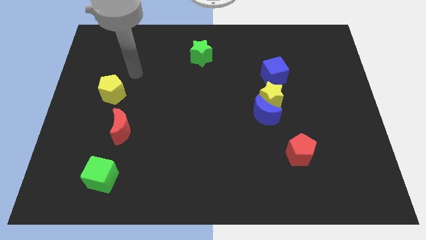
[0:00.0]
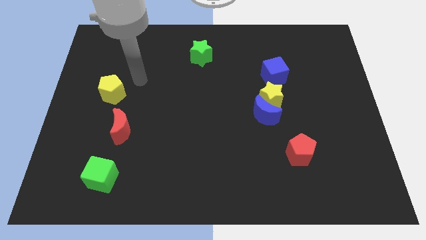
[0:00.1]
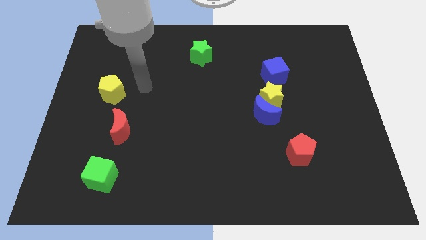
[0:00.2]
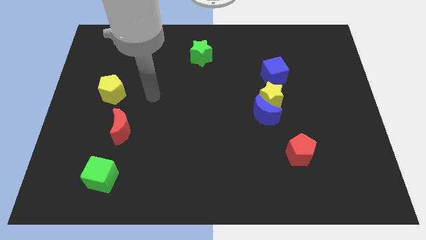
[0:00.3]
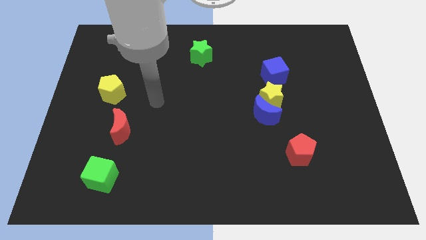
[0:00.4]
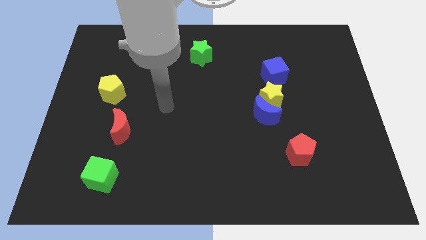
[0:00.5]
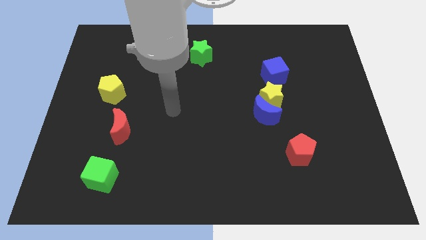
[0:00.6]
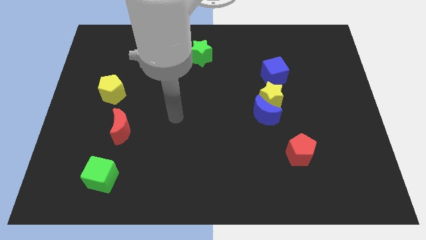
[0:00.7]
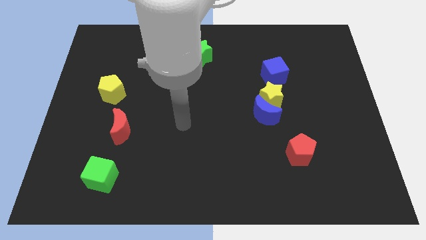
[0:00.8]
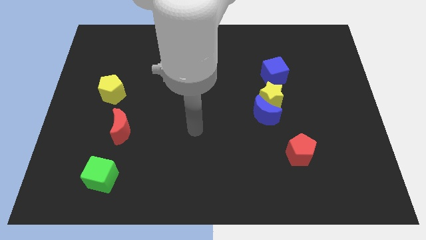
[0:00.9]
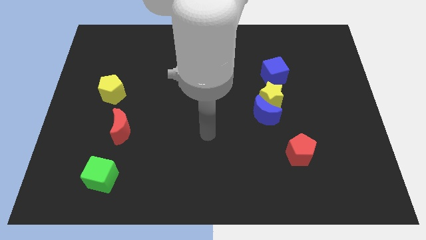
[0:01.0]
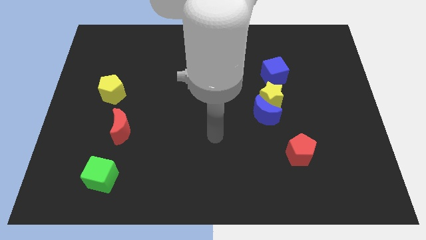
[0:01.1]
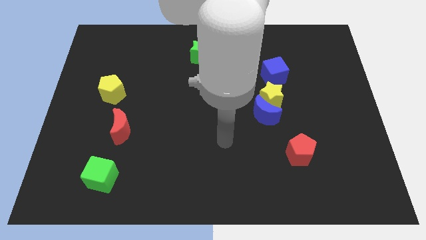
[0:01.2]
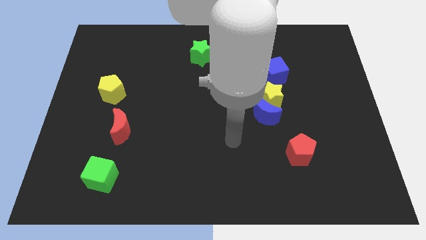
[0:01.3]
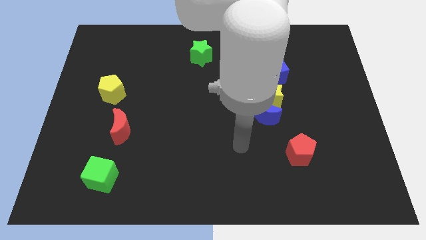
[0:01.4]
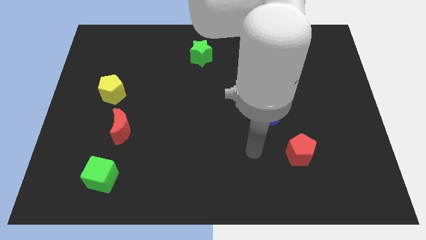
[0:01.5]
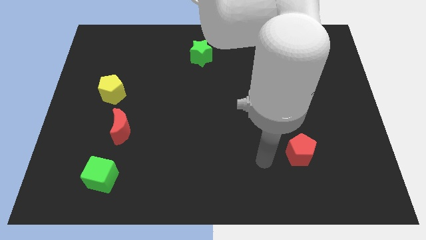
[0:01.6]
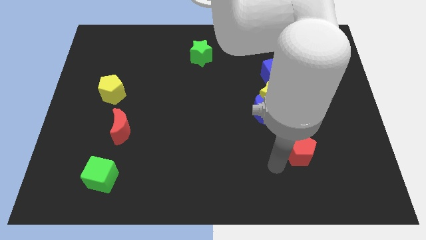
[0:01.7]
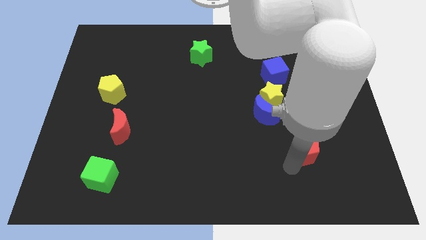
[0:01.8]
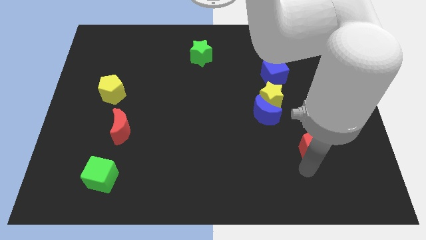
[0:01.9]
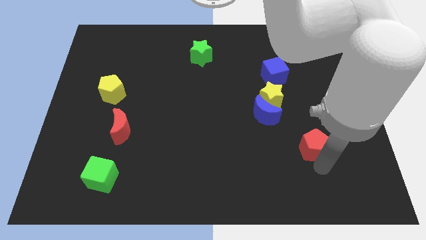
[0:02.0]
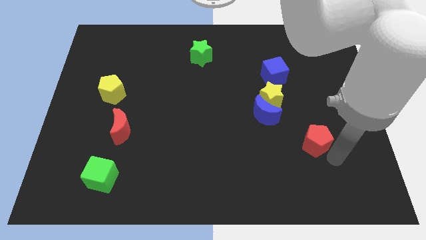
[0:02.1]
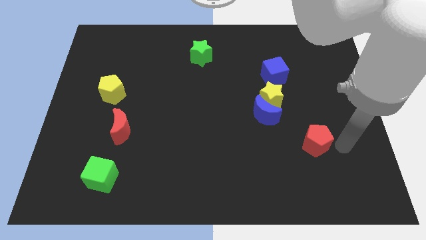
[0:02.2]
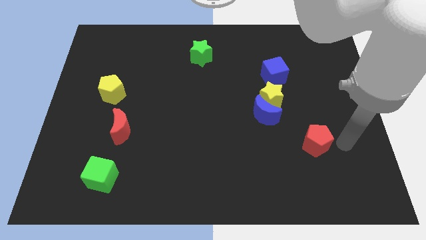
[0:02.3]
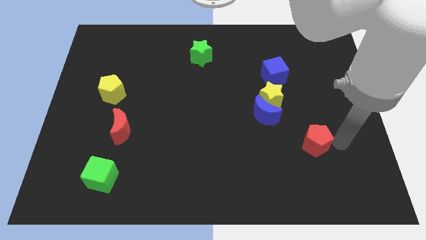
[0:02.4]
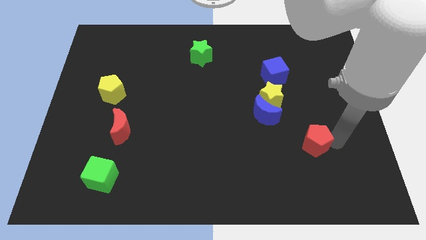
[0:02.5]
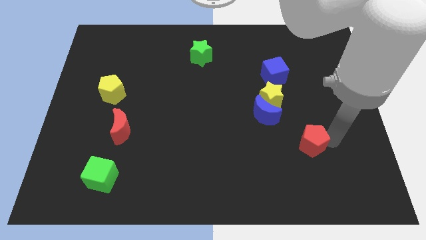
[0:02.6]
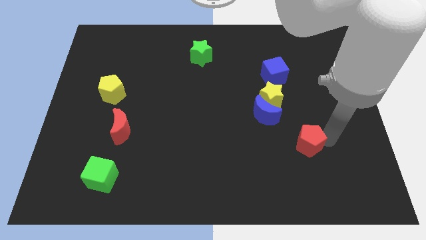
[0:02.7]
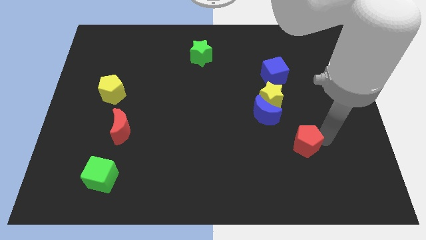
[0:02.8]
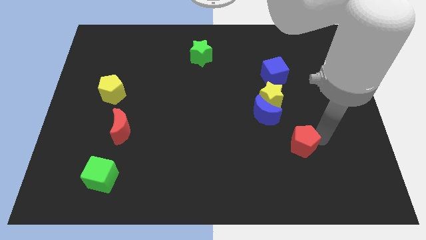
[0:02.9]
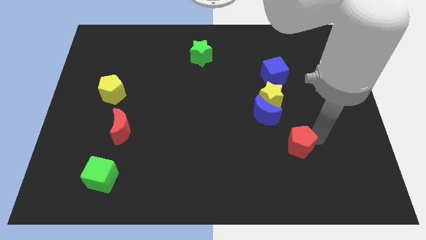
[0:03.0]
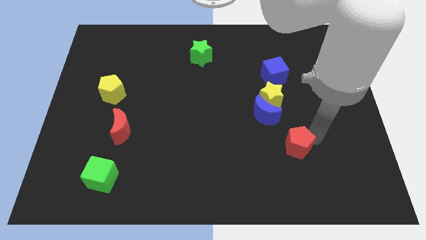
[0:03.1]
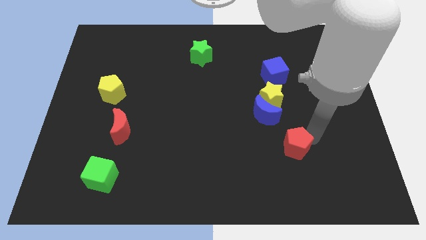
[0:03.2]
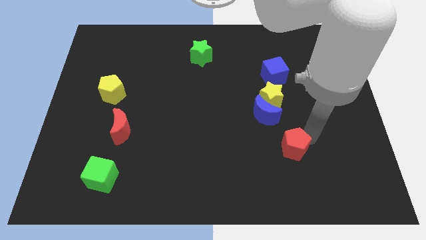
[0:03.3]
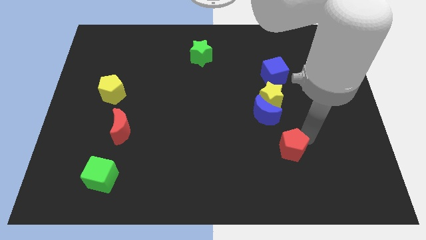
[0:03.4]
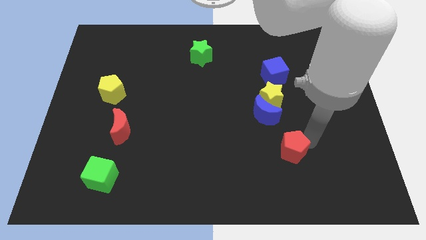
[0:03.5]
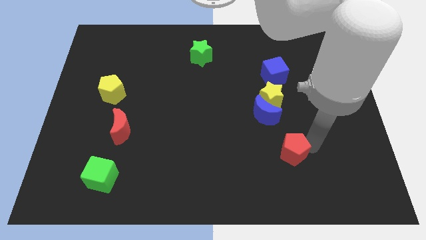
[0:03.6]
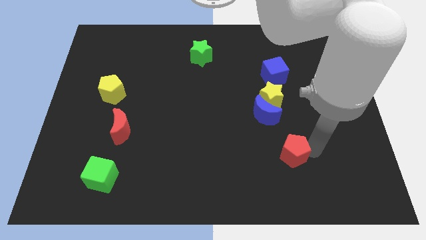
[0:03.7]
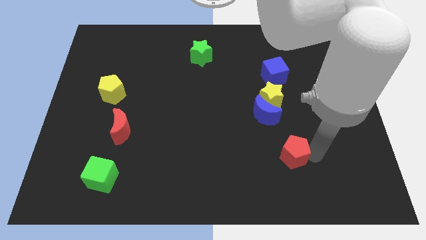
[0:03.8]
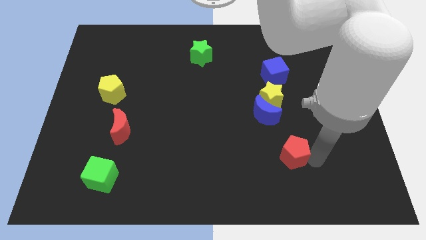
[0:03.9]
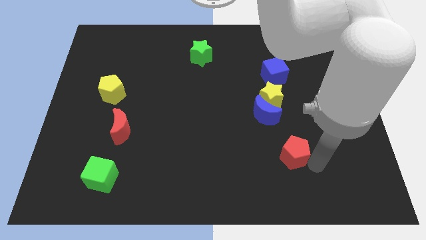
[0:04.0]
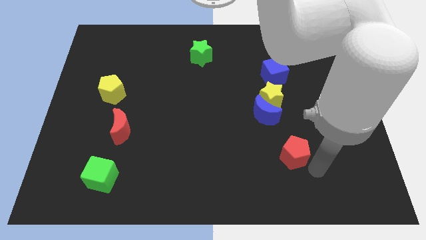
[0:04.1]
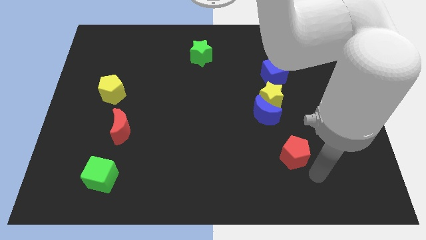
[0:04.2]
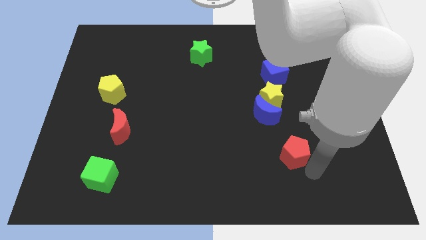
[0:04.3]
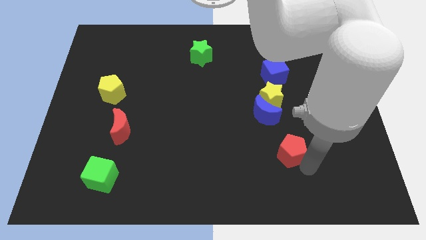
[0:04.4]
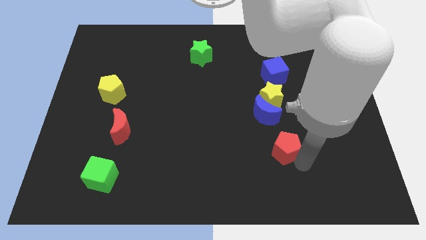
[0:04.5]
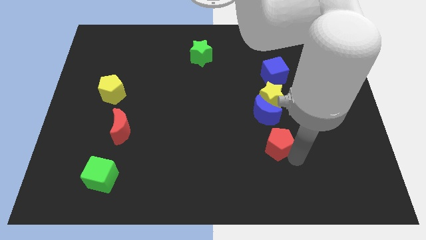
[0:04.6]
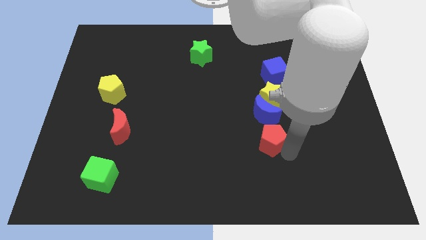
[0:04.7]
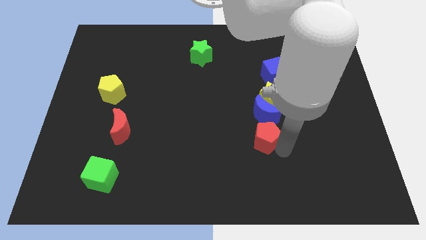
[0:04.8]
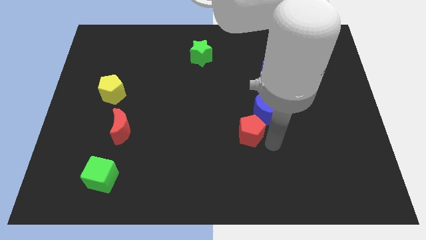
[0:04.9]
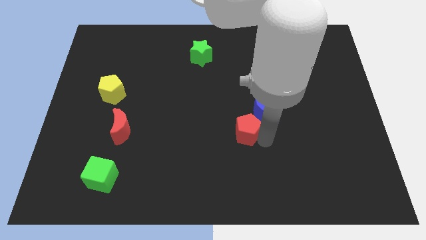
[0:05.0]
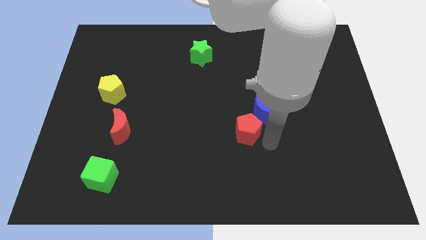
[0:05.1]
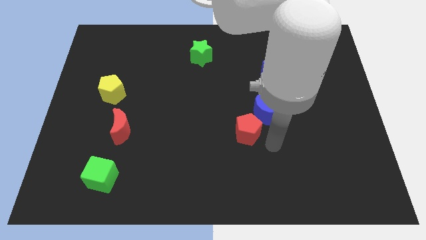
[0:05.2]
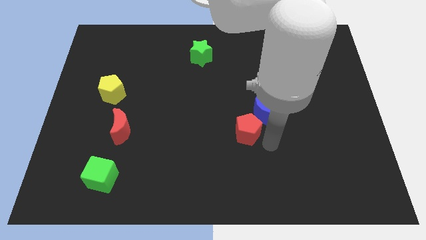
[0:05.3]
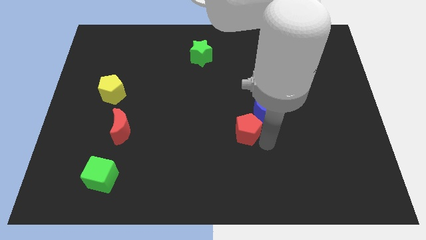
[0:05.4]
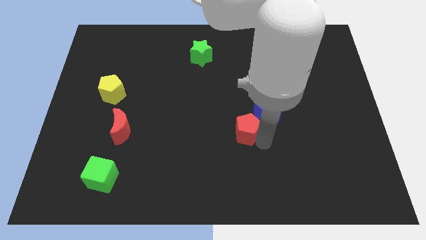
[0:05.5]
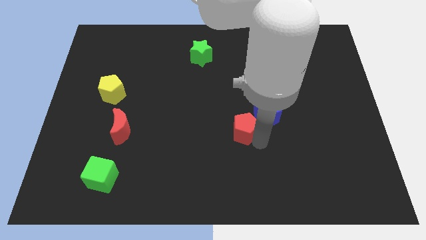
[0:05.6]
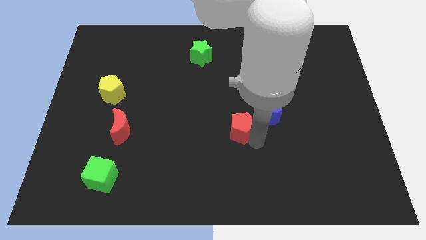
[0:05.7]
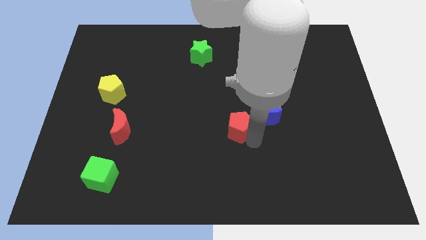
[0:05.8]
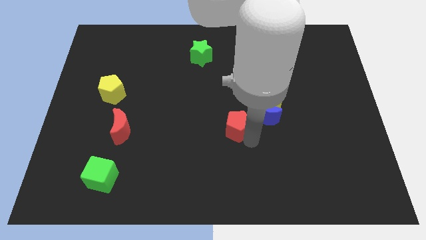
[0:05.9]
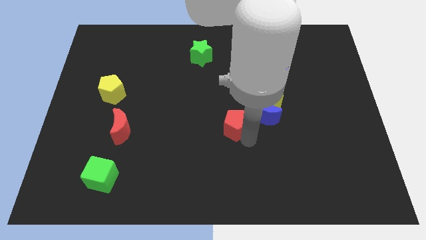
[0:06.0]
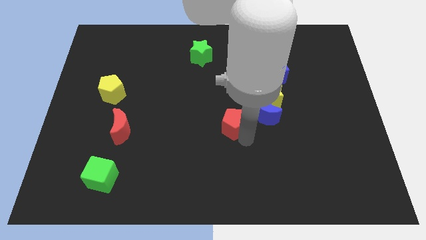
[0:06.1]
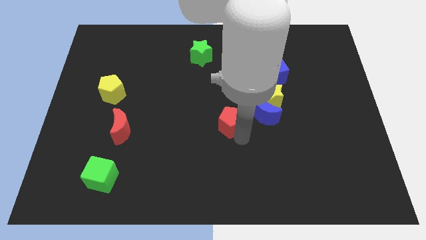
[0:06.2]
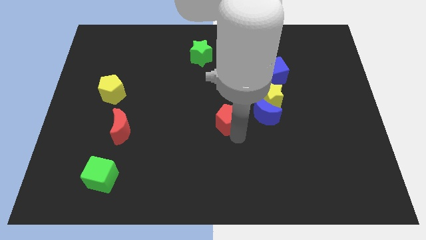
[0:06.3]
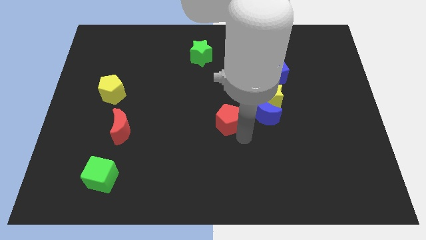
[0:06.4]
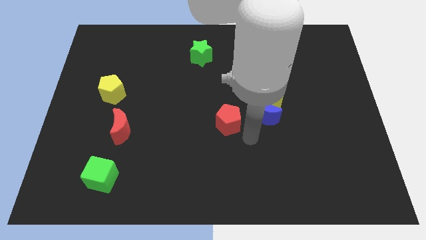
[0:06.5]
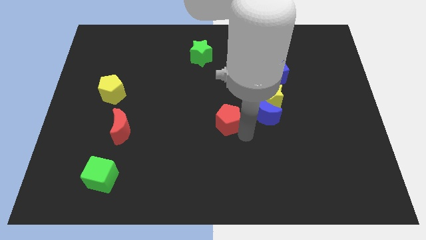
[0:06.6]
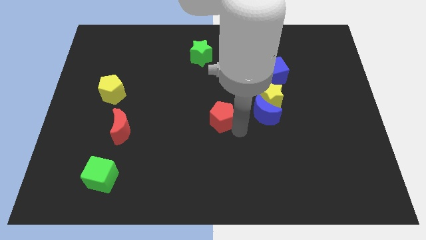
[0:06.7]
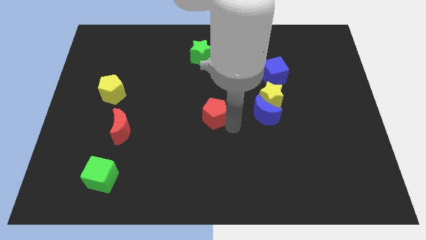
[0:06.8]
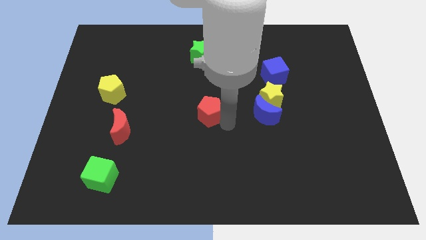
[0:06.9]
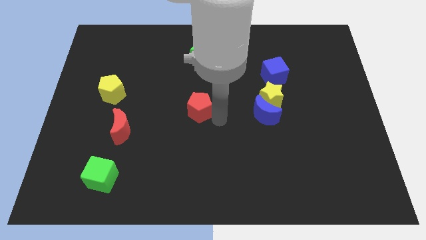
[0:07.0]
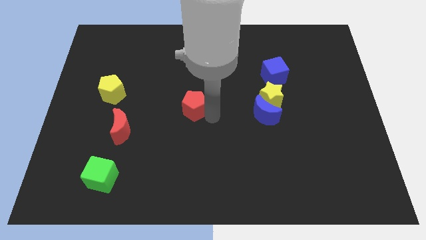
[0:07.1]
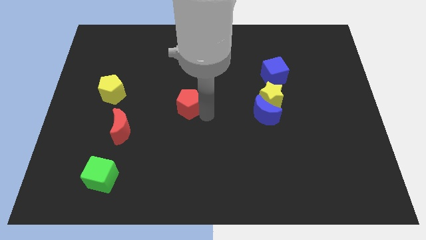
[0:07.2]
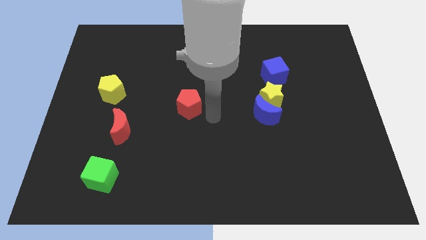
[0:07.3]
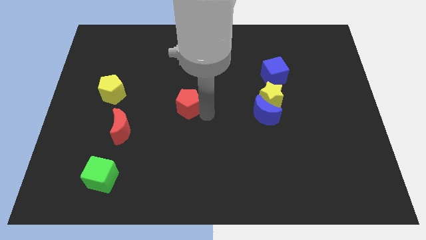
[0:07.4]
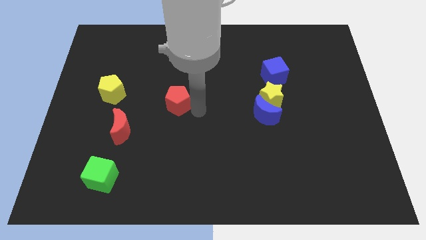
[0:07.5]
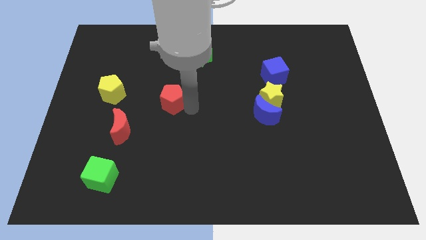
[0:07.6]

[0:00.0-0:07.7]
put the red pentagon right of the yellow pentagon

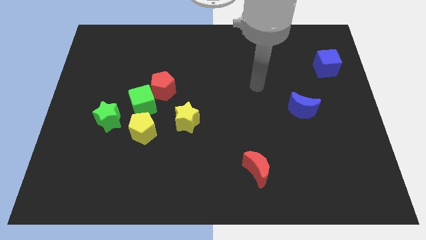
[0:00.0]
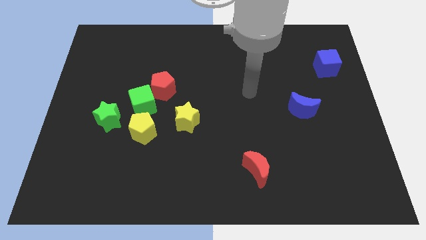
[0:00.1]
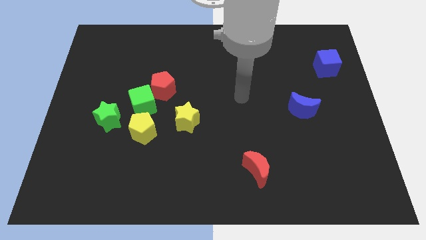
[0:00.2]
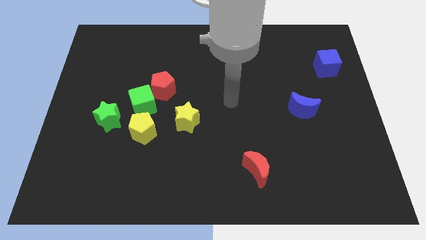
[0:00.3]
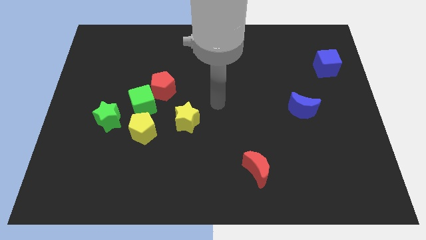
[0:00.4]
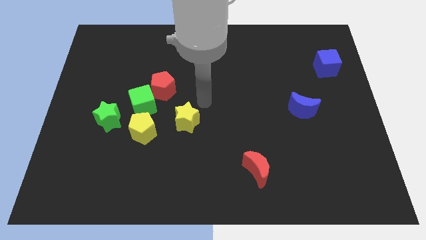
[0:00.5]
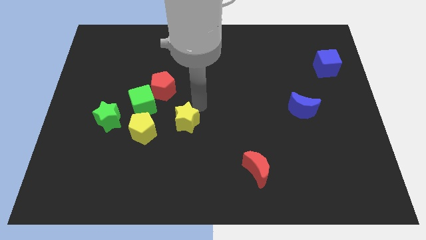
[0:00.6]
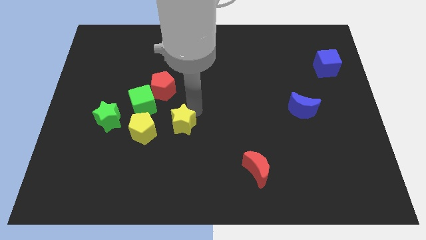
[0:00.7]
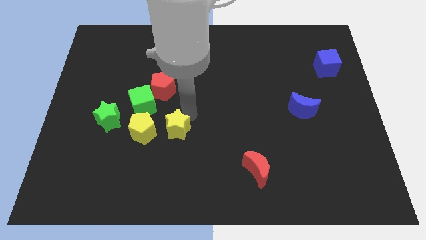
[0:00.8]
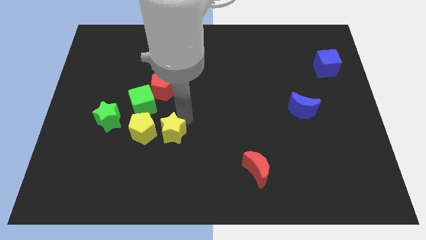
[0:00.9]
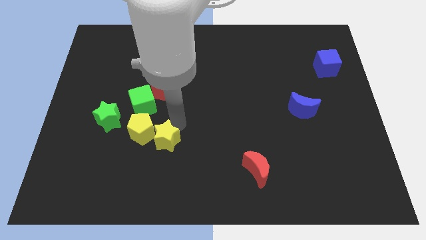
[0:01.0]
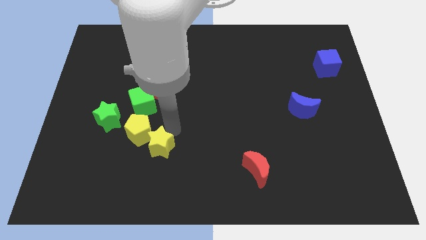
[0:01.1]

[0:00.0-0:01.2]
slide the yellow star to the bottom of the yellow pentagon
